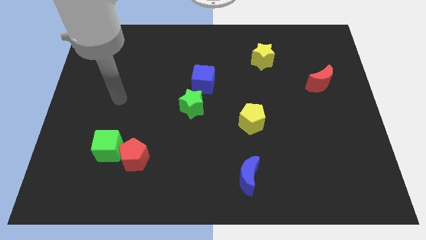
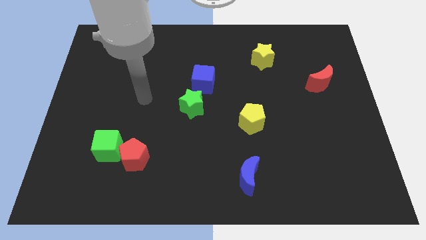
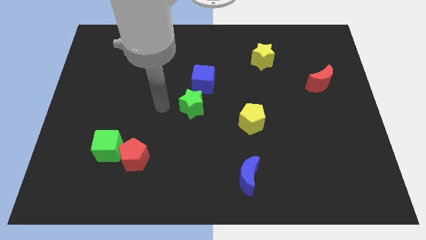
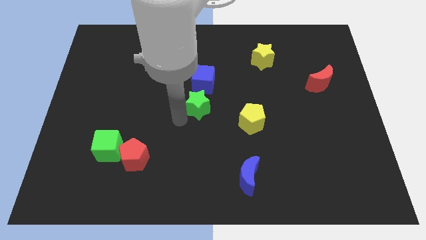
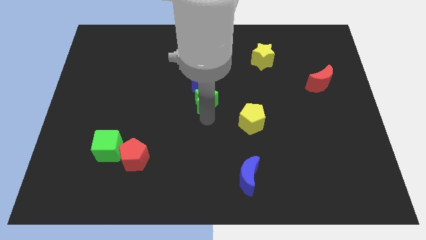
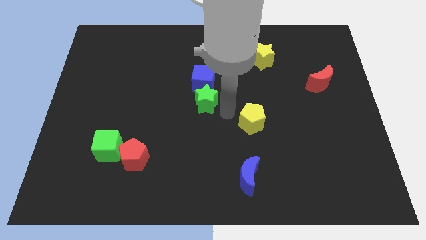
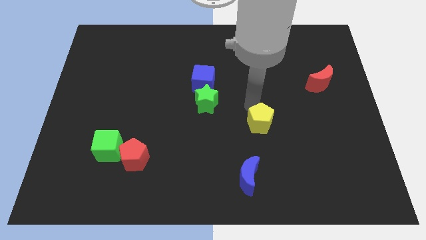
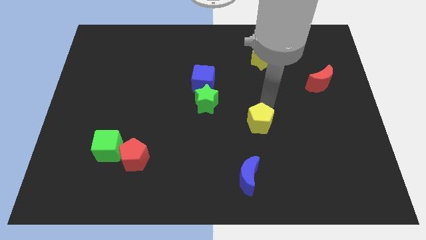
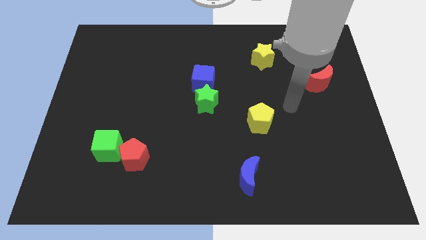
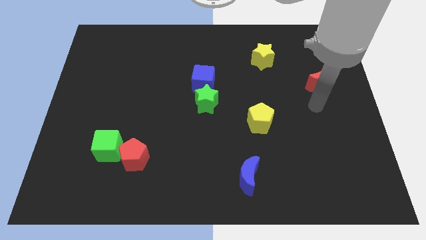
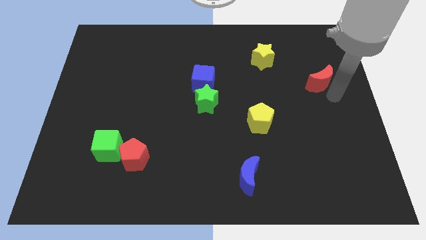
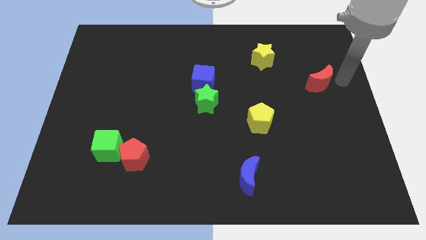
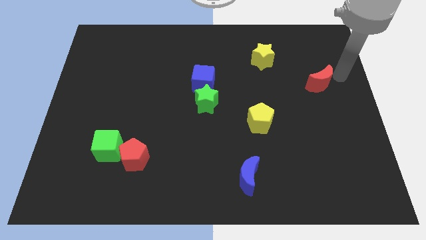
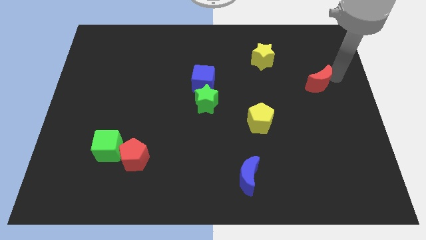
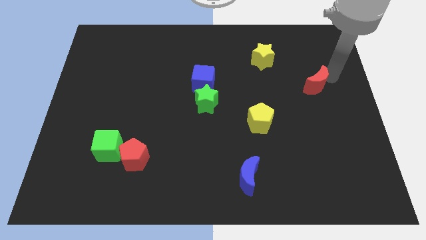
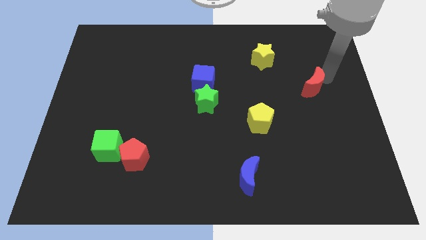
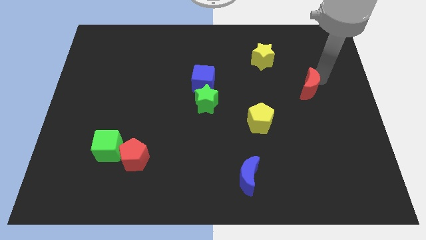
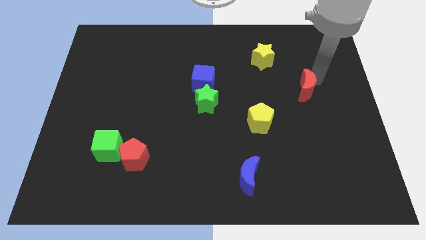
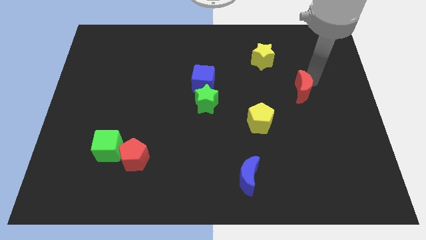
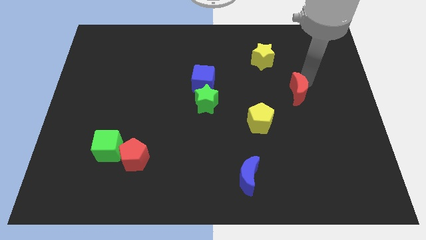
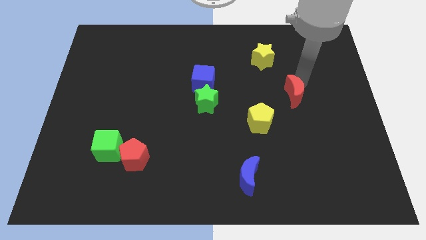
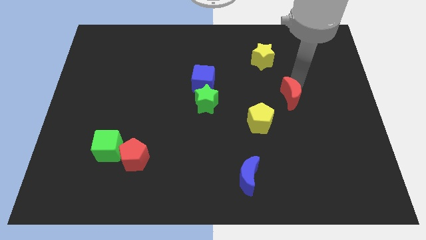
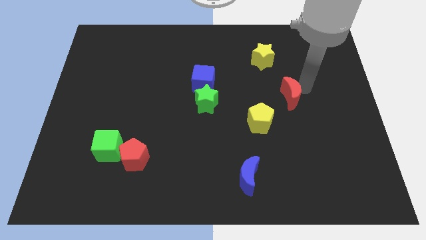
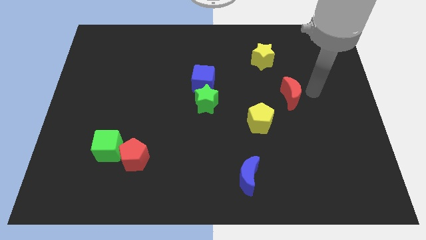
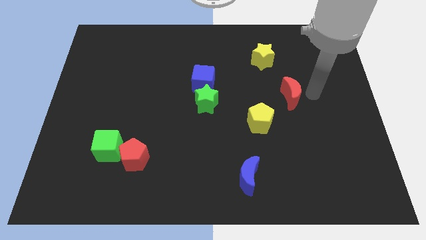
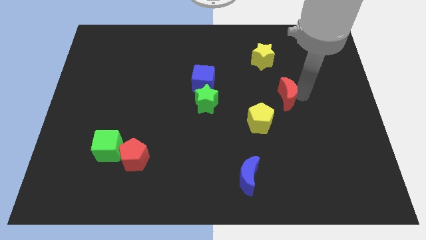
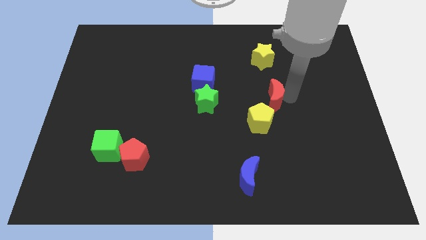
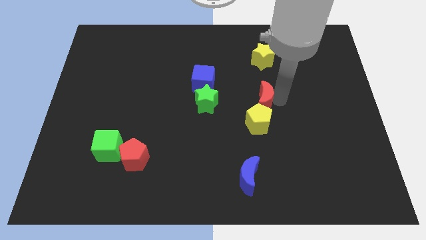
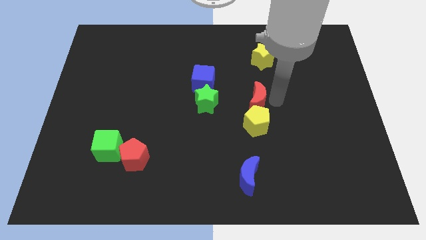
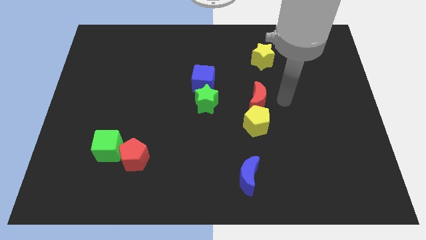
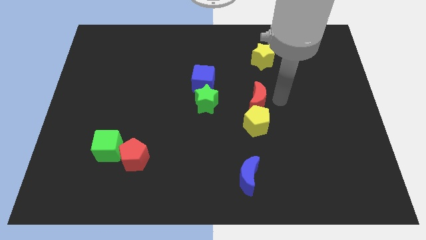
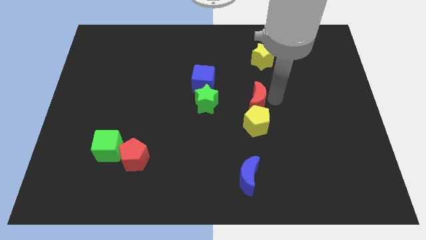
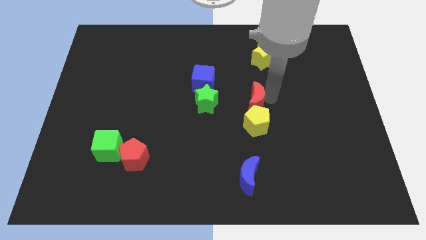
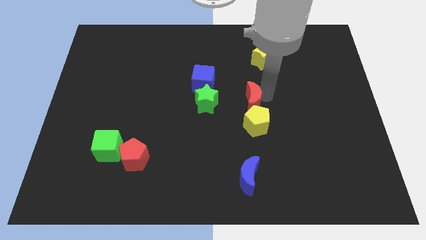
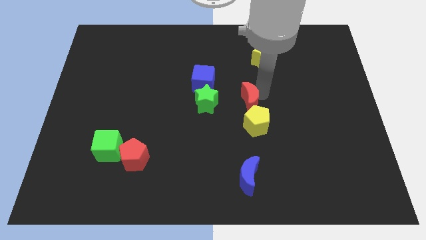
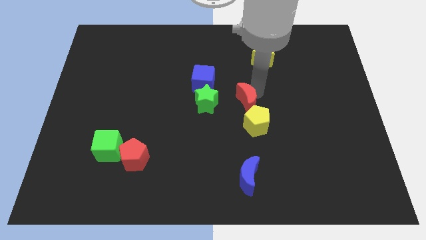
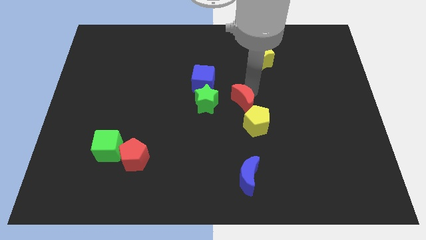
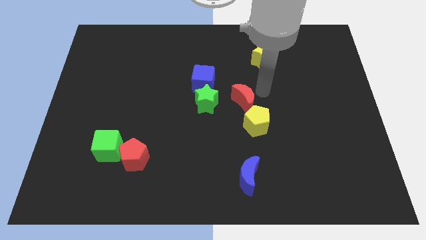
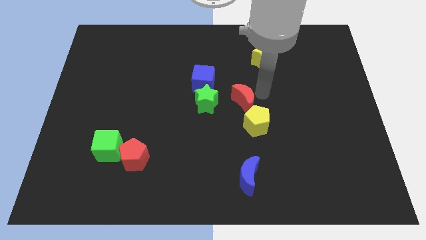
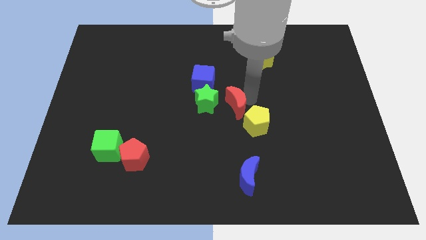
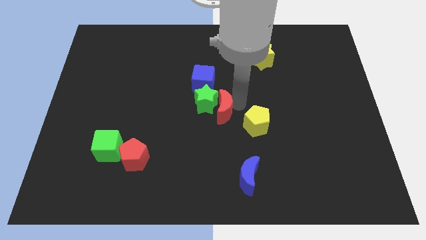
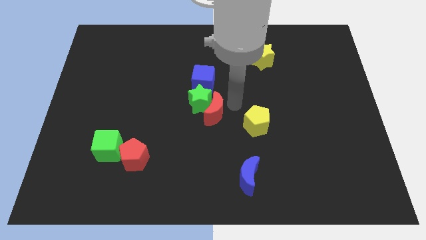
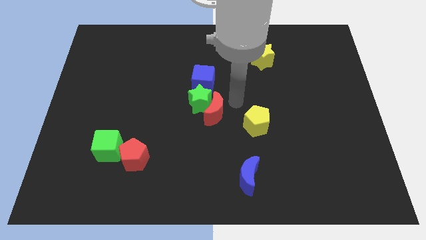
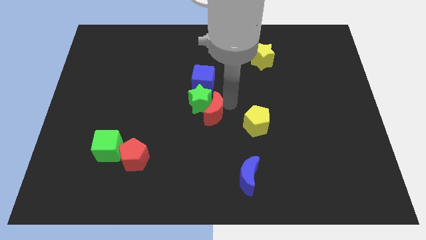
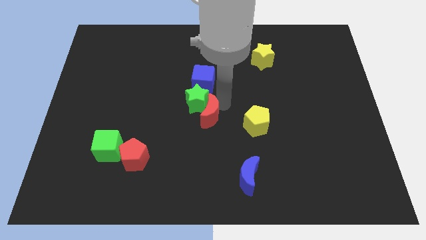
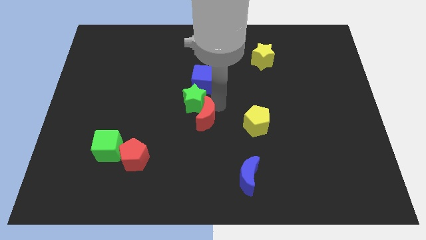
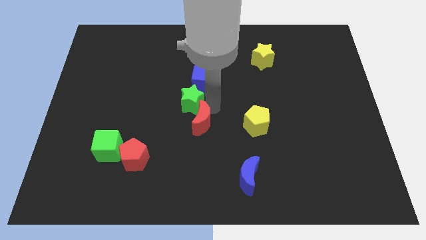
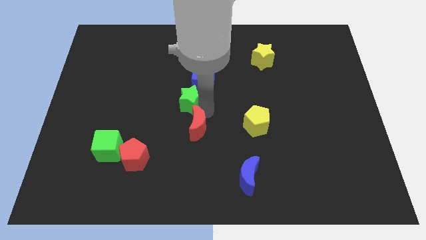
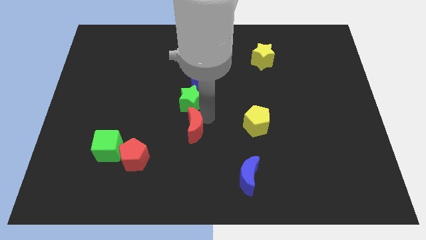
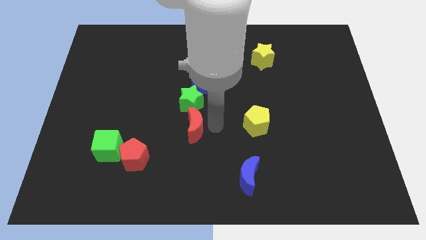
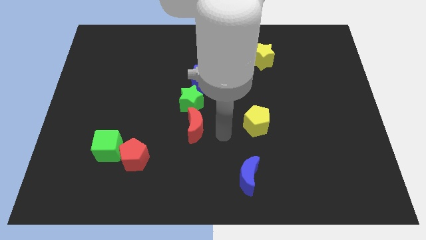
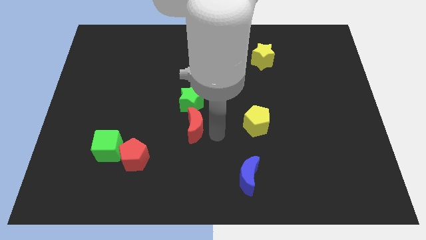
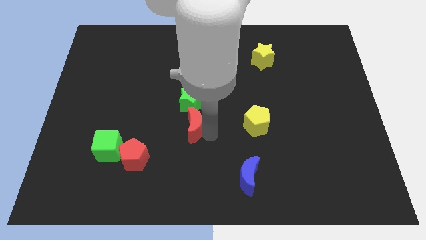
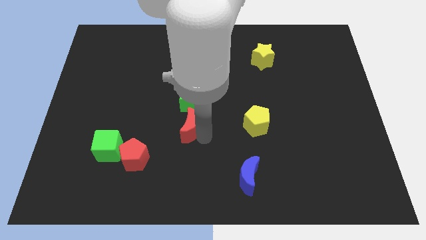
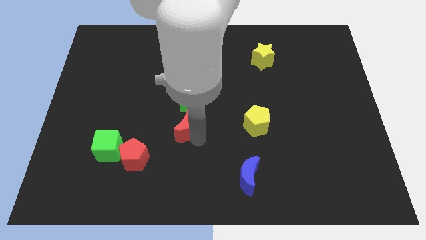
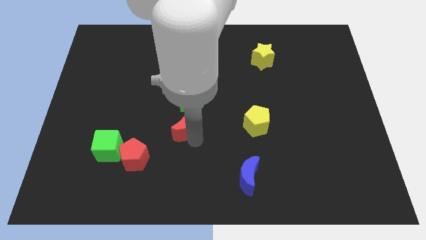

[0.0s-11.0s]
move the red moon to the bottom left side of the green star

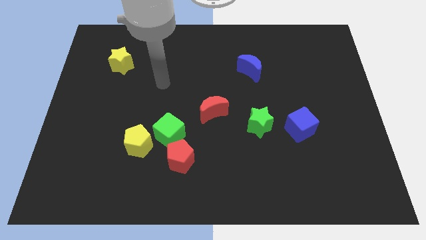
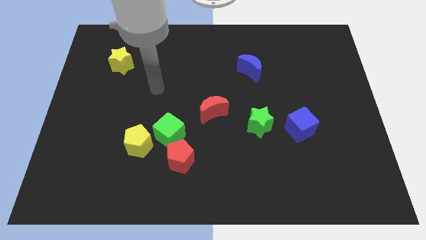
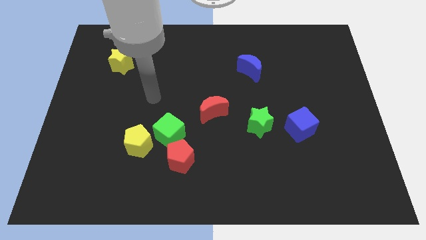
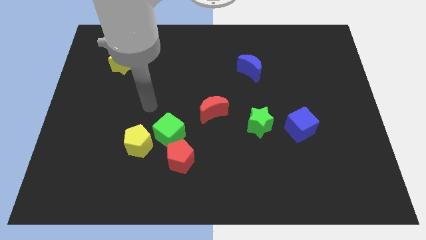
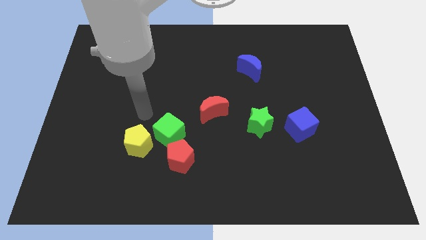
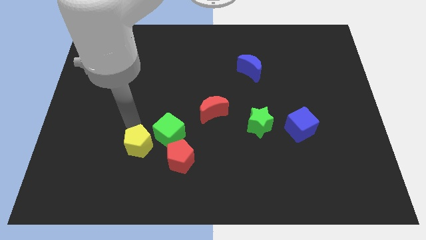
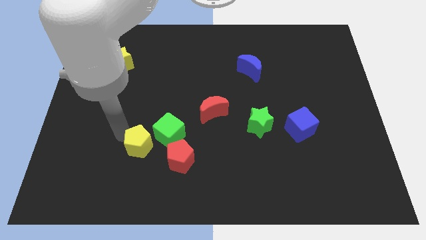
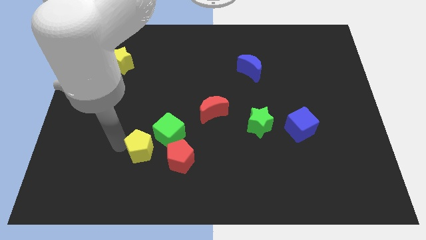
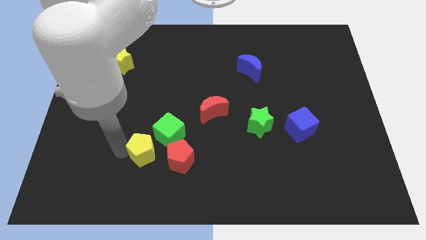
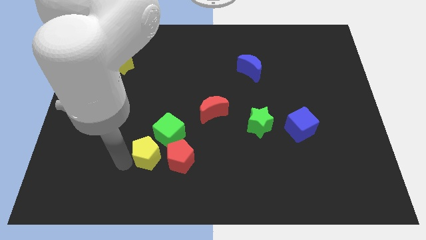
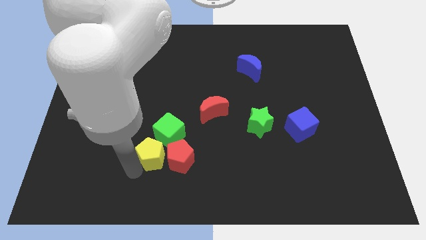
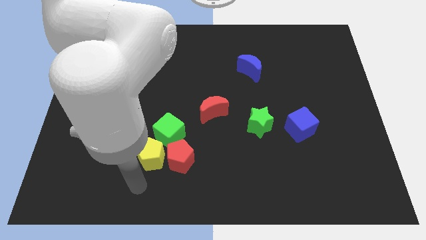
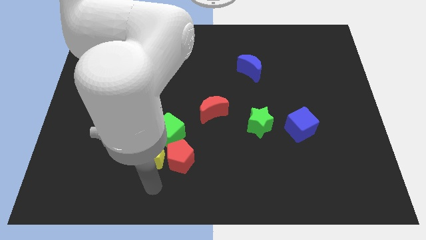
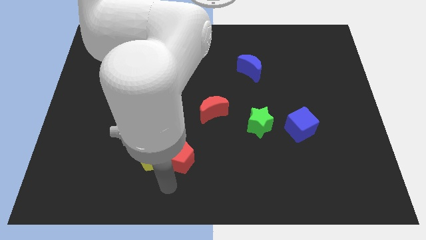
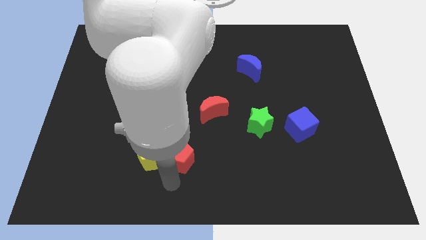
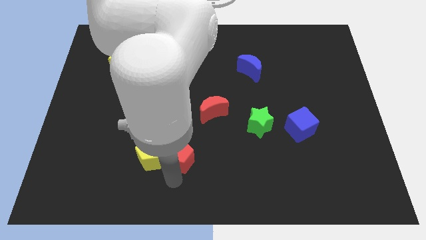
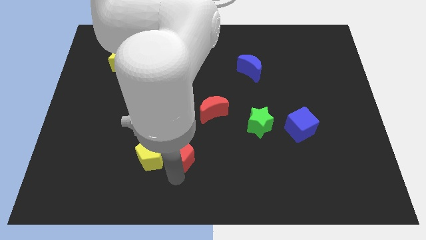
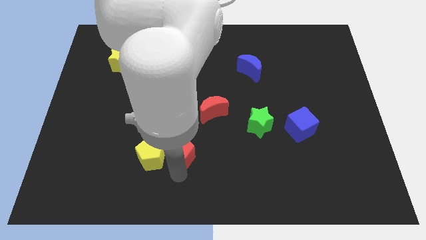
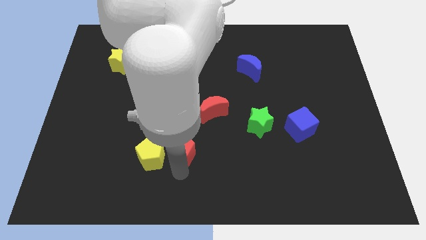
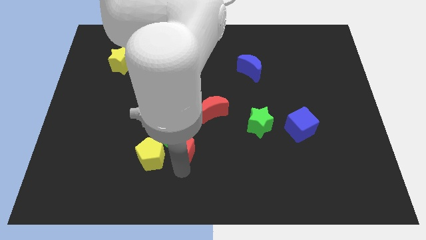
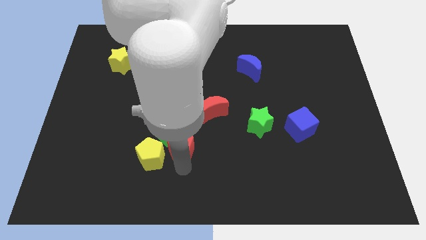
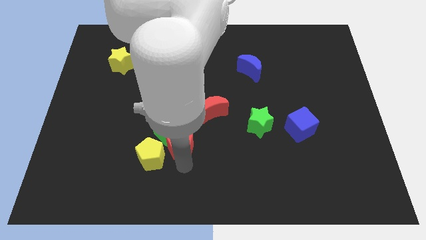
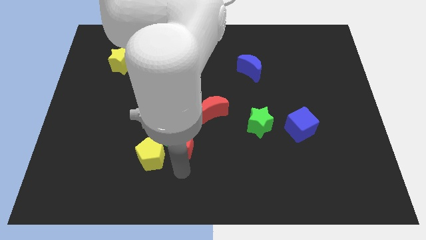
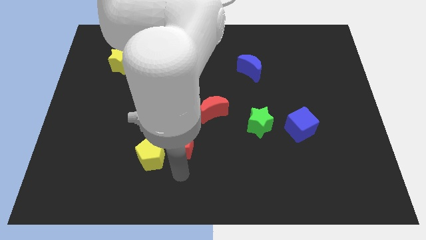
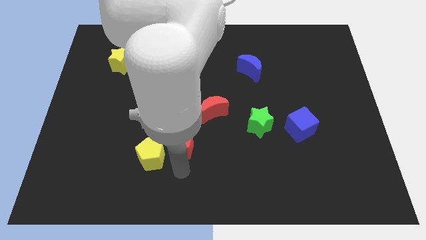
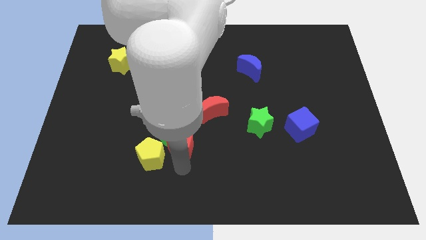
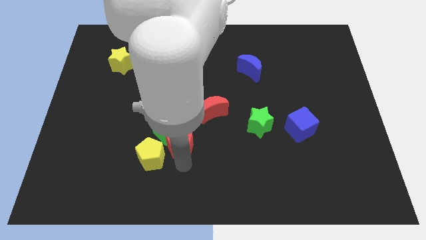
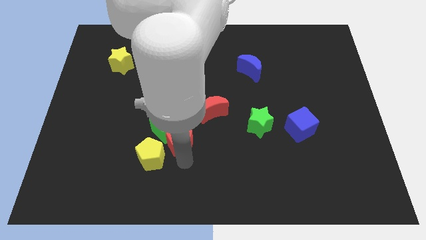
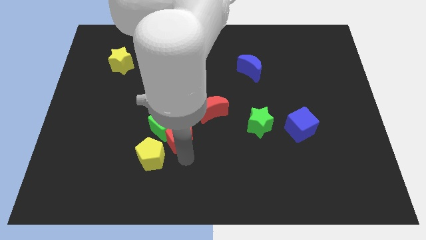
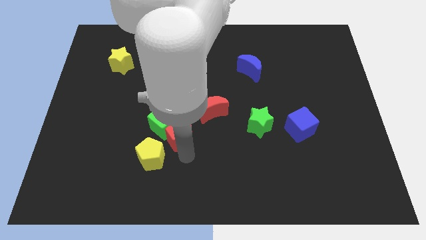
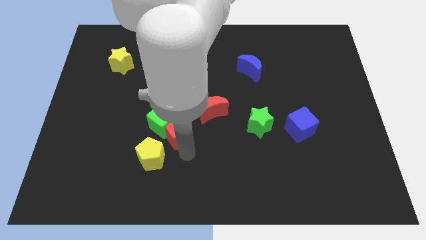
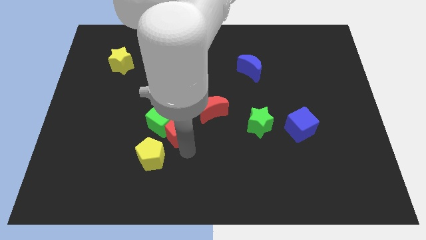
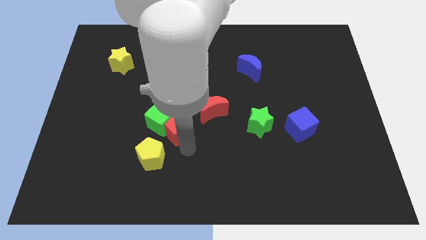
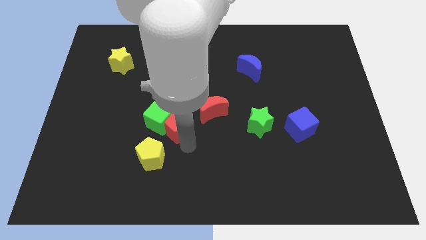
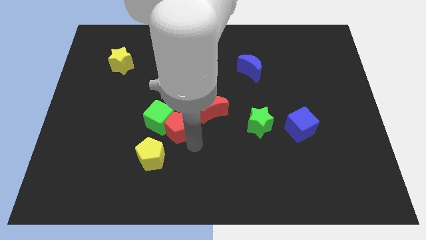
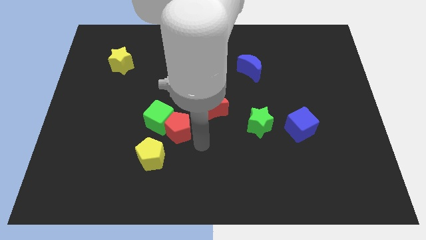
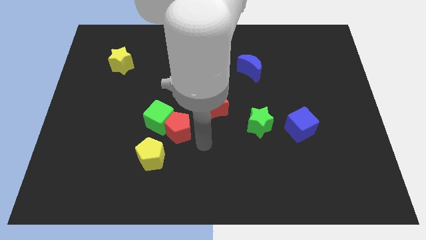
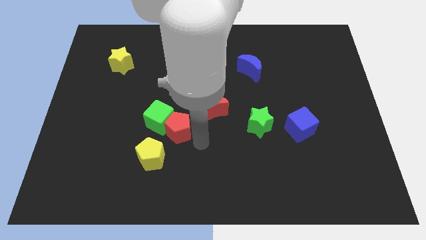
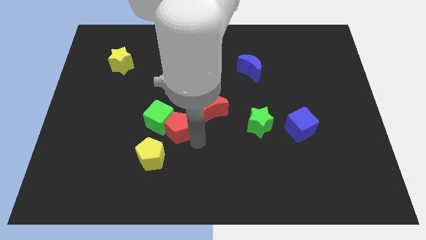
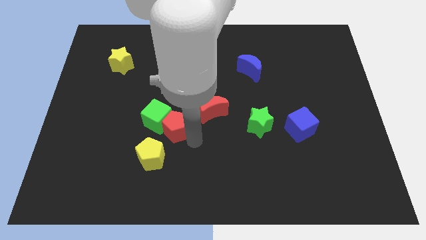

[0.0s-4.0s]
push the red pentagon above the yellow pentagon
